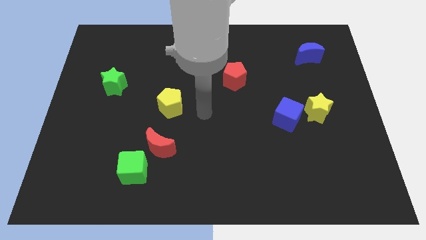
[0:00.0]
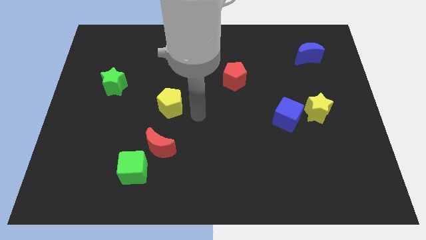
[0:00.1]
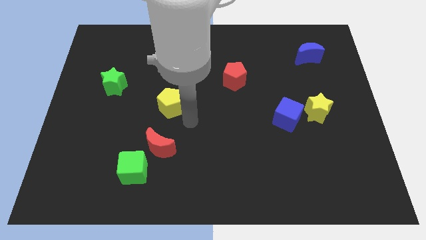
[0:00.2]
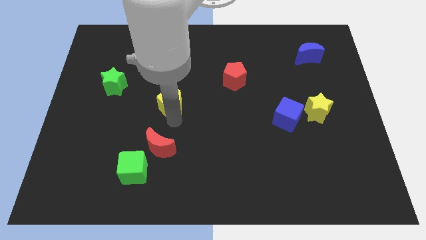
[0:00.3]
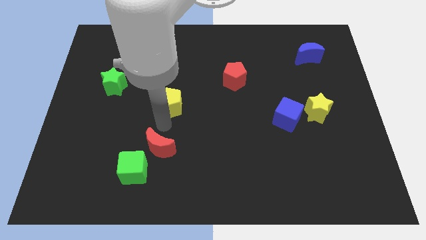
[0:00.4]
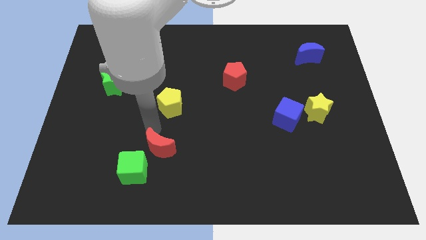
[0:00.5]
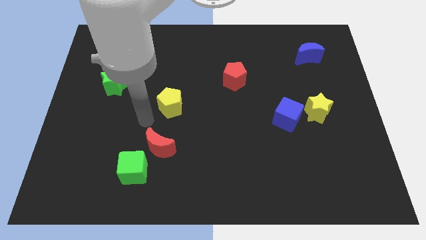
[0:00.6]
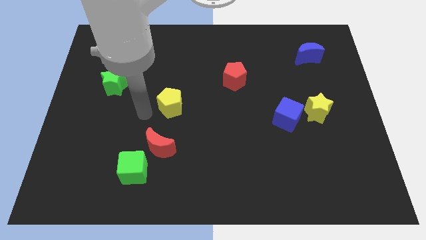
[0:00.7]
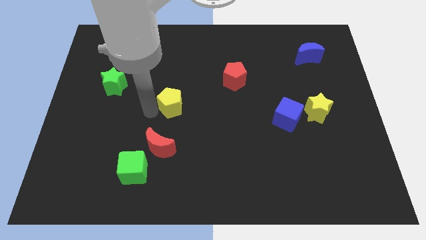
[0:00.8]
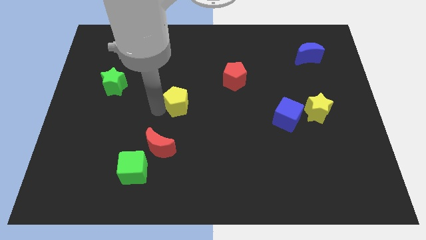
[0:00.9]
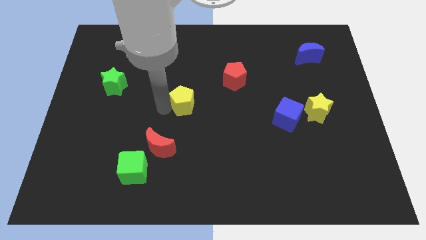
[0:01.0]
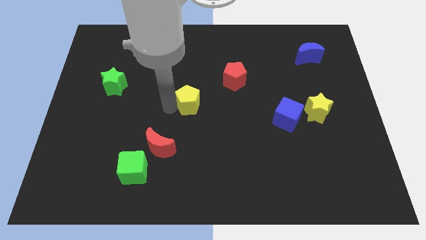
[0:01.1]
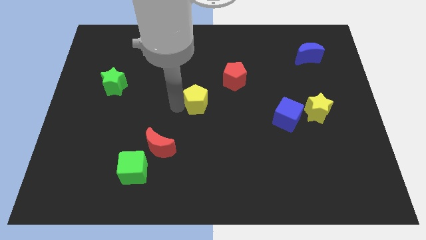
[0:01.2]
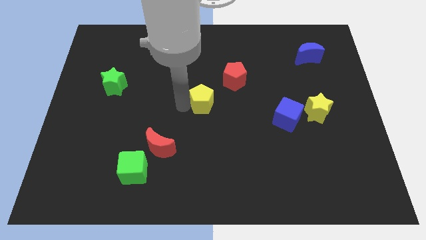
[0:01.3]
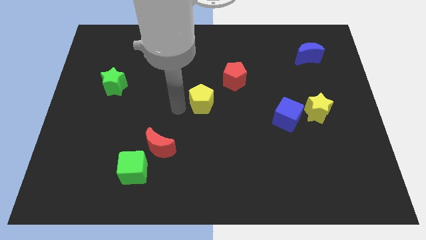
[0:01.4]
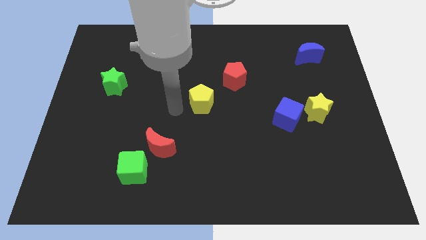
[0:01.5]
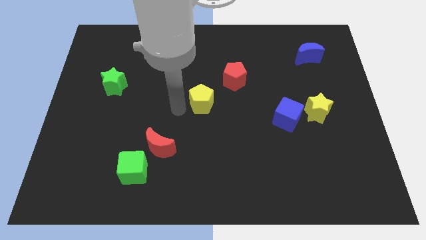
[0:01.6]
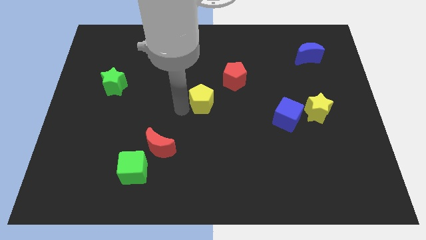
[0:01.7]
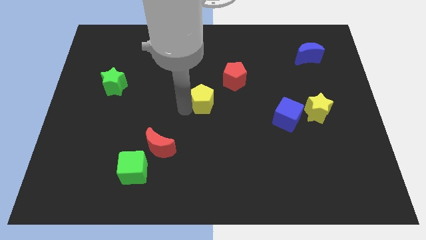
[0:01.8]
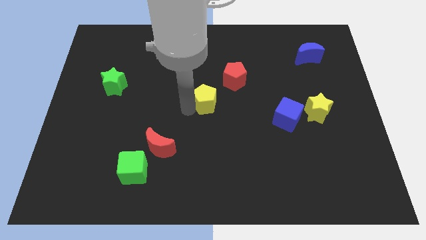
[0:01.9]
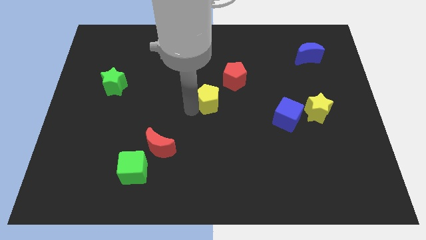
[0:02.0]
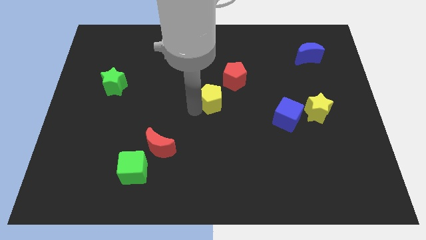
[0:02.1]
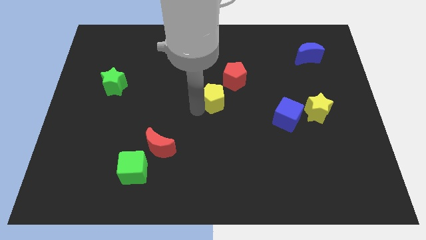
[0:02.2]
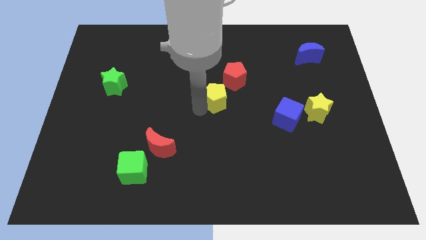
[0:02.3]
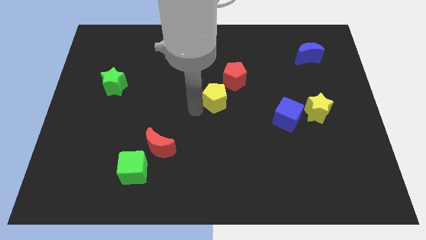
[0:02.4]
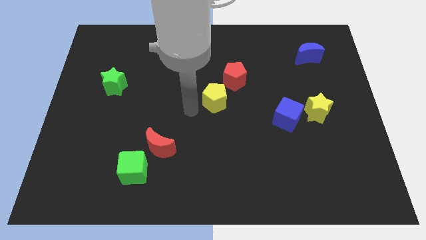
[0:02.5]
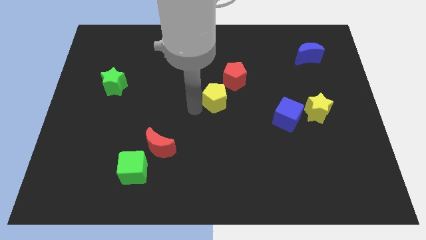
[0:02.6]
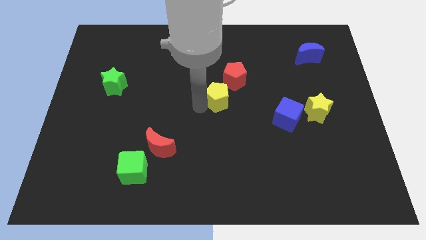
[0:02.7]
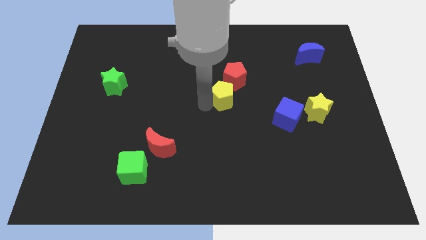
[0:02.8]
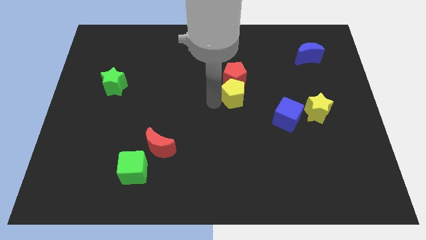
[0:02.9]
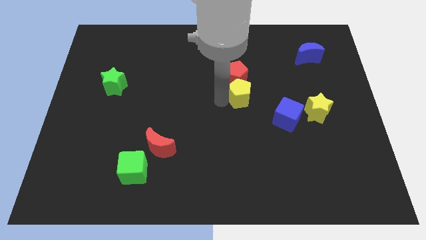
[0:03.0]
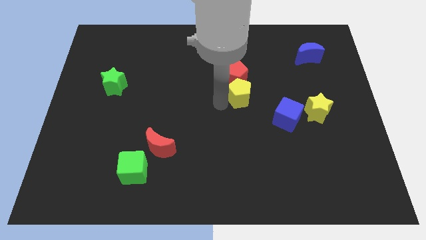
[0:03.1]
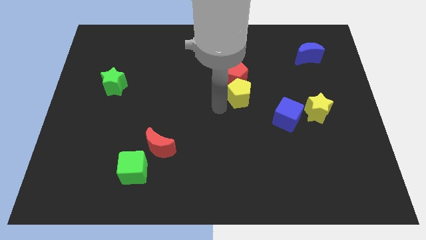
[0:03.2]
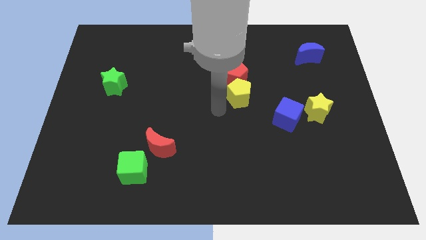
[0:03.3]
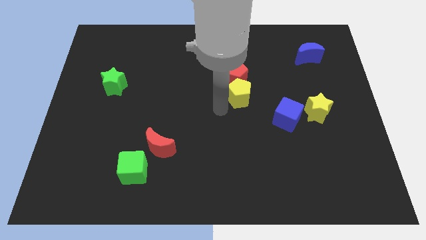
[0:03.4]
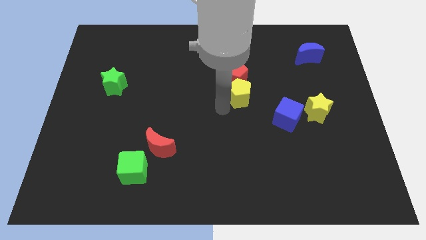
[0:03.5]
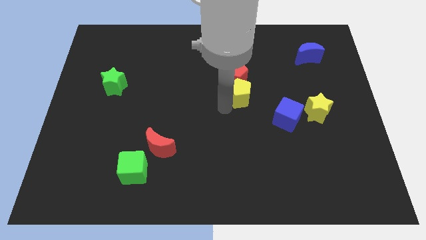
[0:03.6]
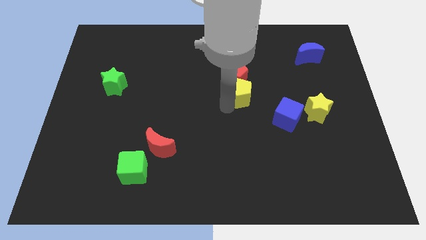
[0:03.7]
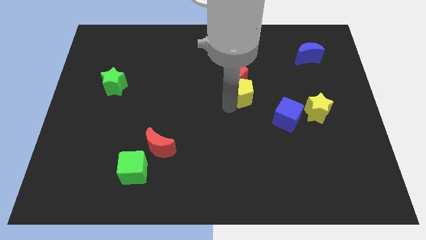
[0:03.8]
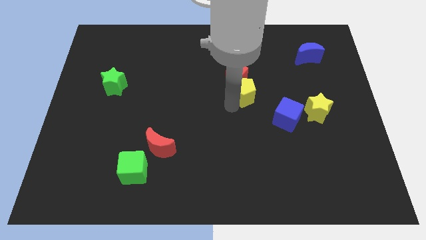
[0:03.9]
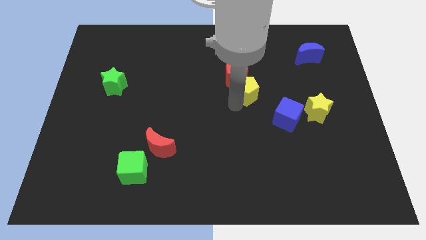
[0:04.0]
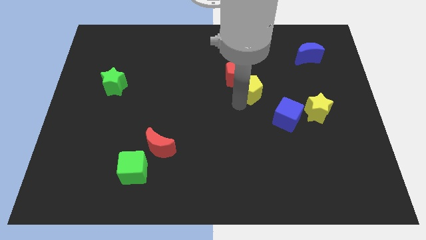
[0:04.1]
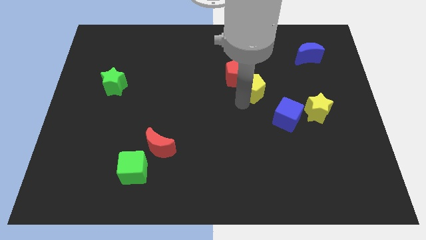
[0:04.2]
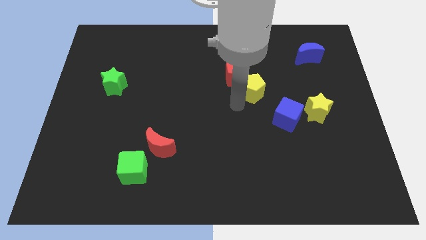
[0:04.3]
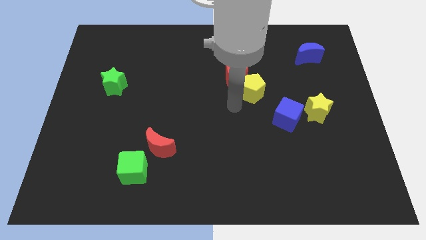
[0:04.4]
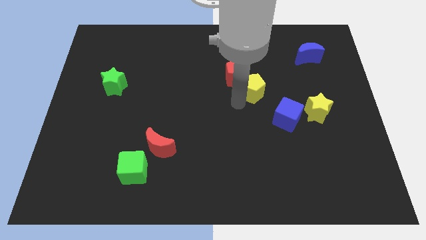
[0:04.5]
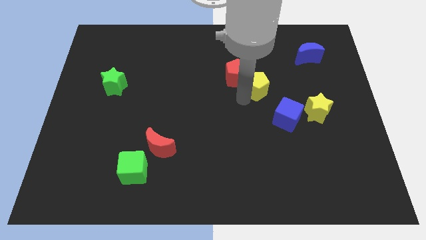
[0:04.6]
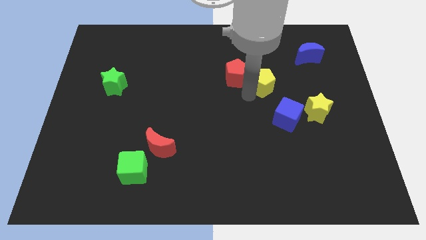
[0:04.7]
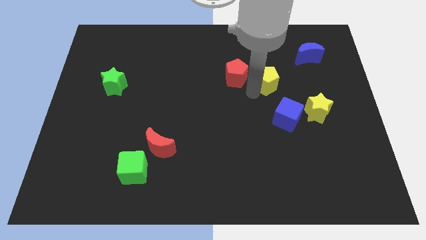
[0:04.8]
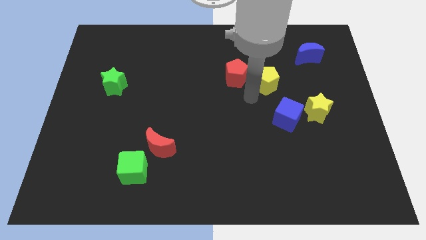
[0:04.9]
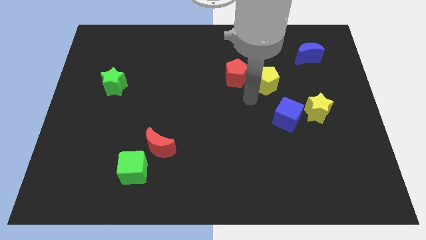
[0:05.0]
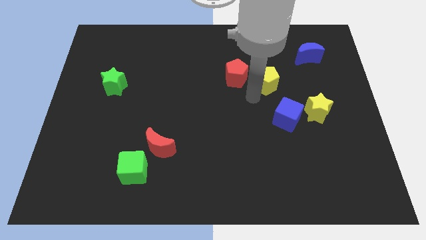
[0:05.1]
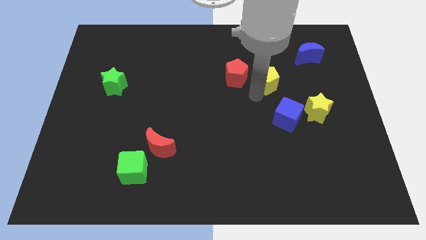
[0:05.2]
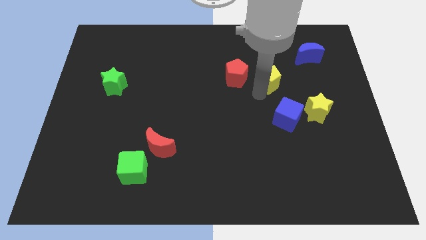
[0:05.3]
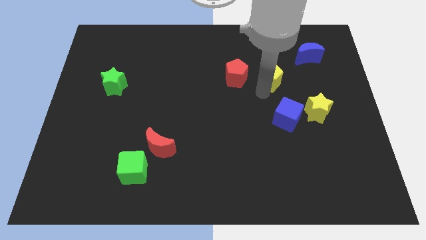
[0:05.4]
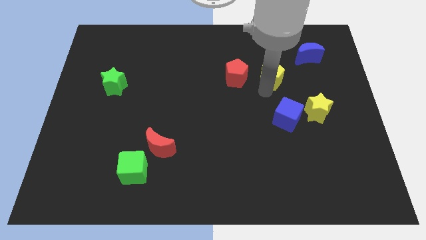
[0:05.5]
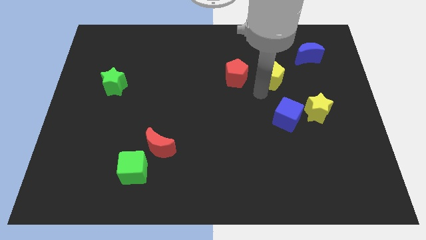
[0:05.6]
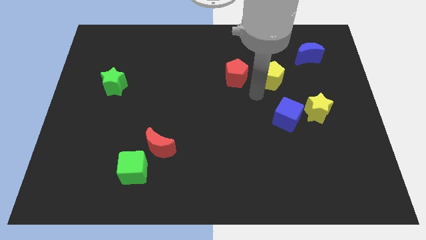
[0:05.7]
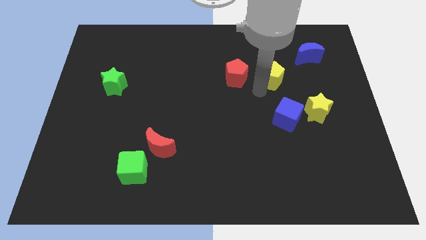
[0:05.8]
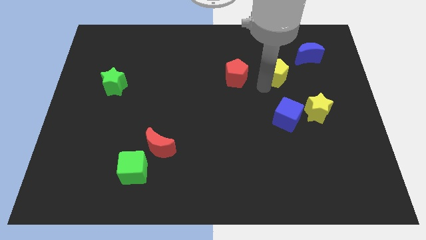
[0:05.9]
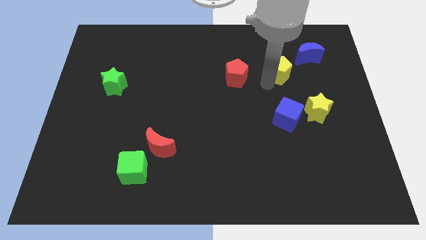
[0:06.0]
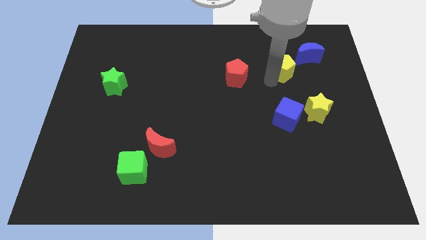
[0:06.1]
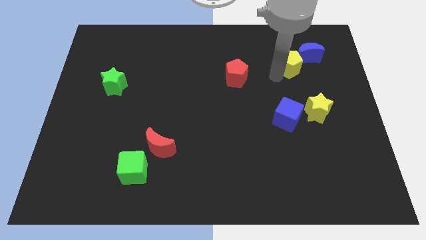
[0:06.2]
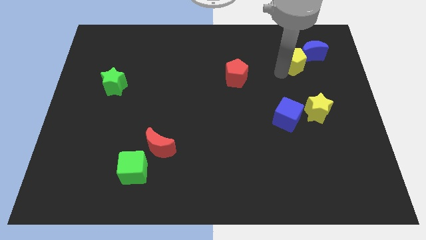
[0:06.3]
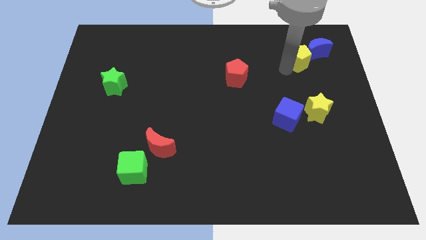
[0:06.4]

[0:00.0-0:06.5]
push the yellow pentagon towards the blue moon
